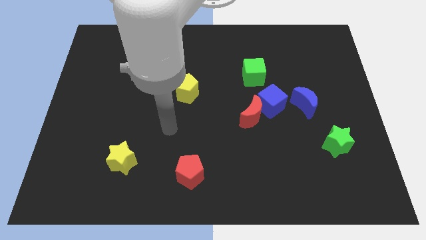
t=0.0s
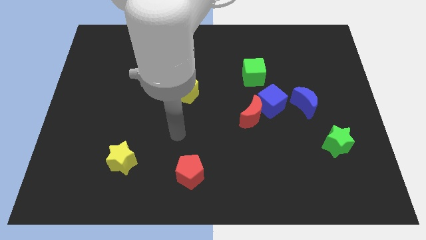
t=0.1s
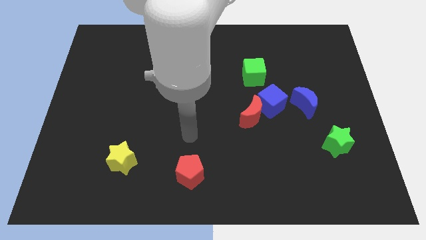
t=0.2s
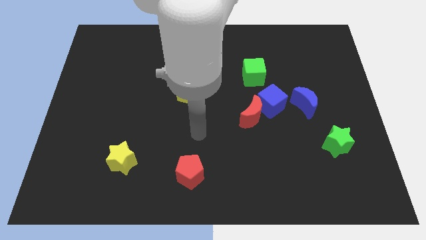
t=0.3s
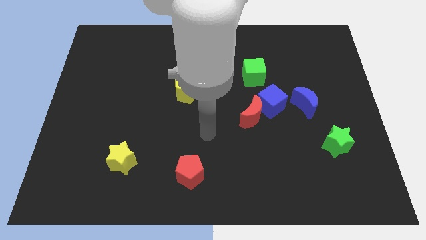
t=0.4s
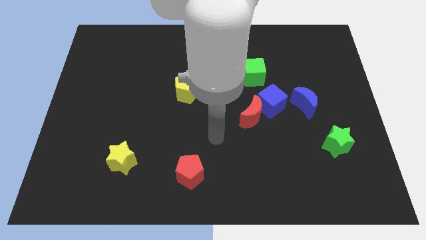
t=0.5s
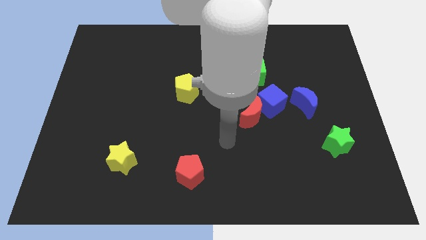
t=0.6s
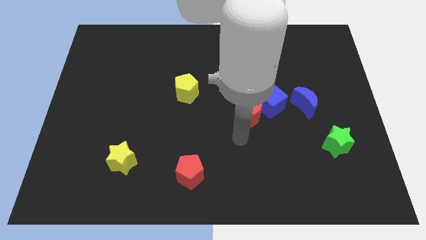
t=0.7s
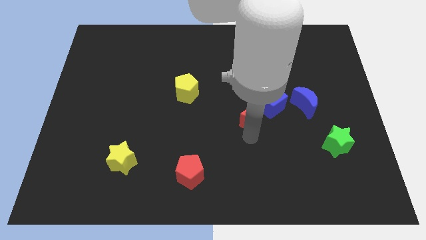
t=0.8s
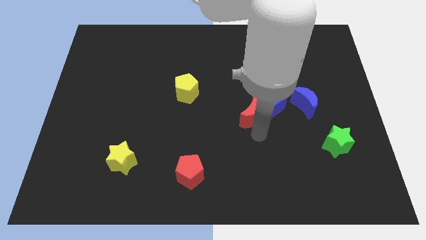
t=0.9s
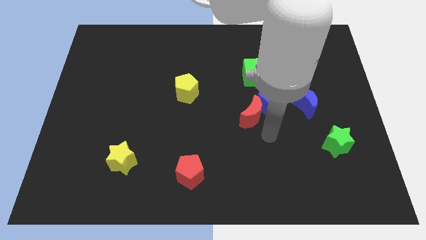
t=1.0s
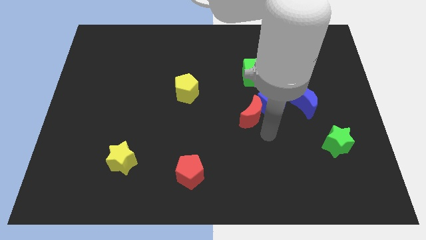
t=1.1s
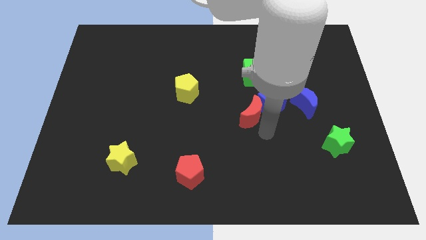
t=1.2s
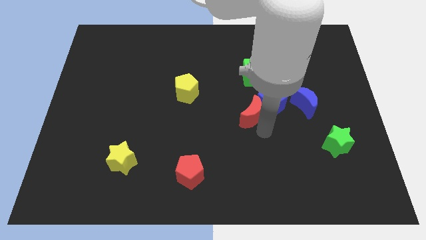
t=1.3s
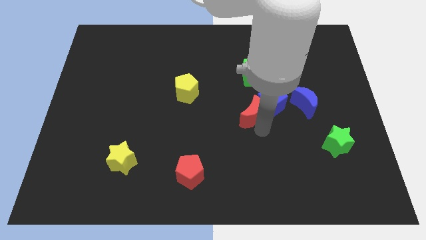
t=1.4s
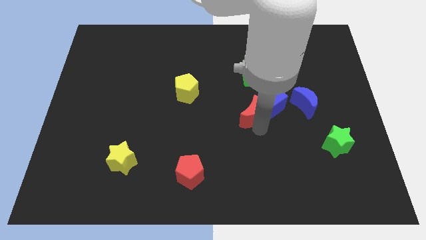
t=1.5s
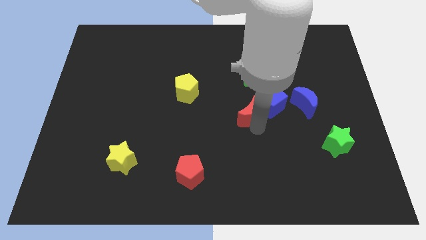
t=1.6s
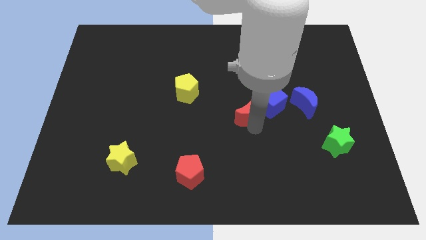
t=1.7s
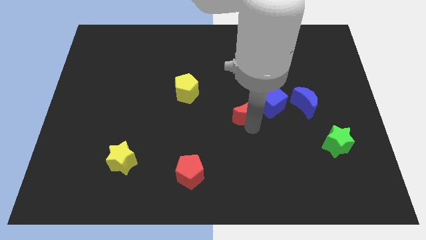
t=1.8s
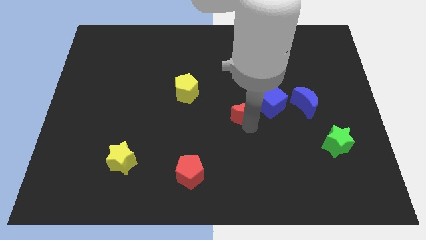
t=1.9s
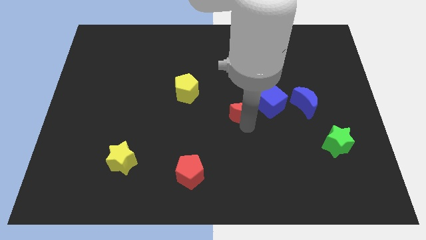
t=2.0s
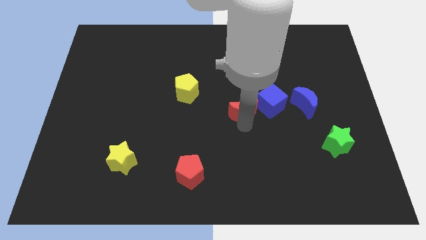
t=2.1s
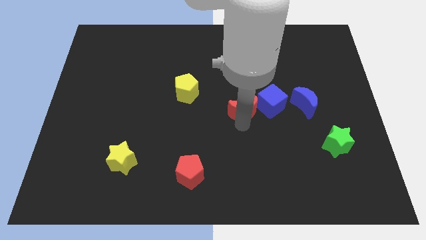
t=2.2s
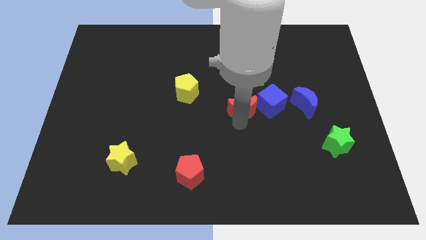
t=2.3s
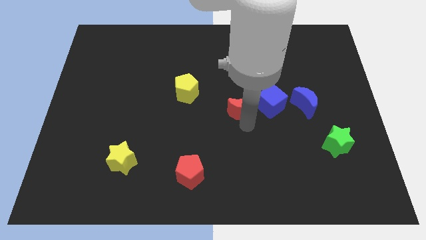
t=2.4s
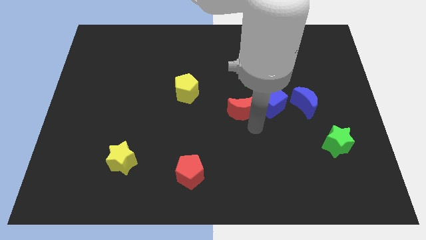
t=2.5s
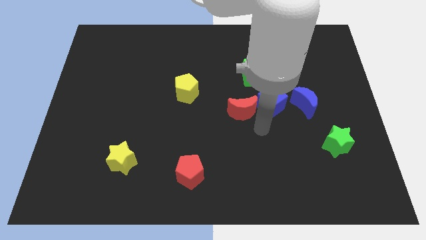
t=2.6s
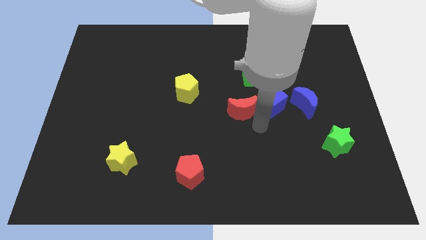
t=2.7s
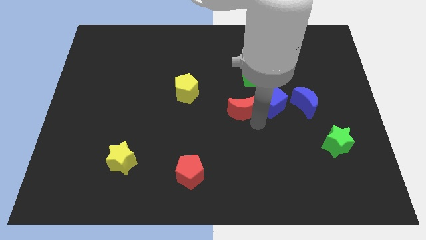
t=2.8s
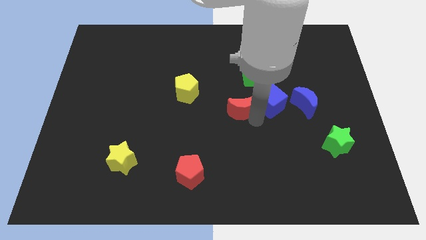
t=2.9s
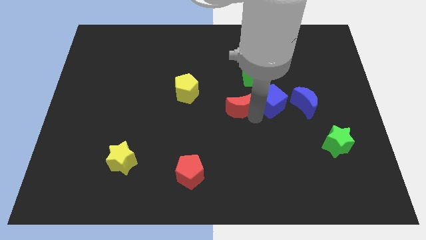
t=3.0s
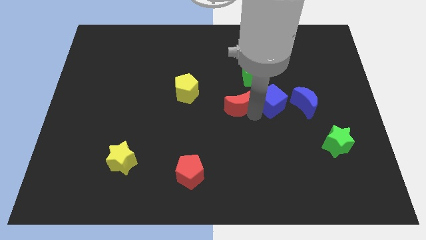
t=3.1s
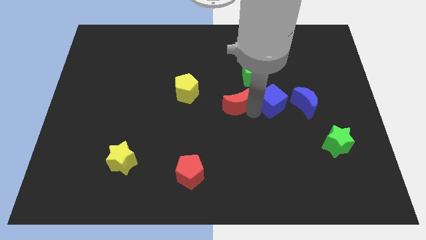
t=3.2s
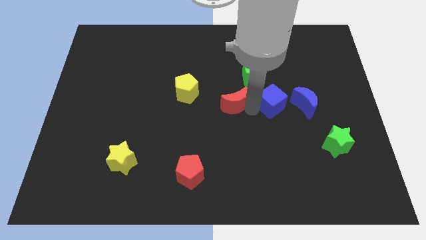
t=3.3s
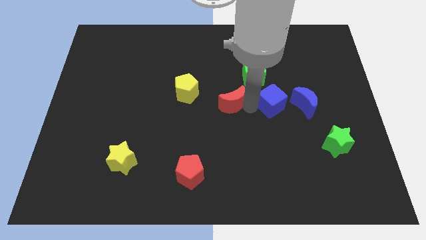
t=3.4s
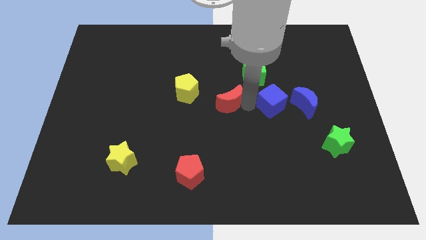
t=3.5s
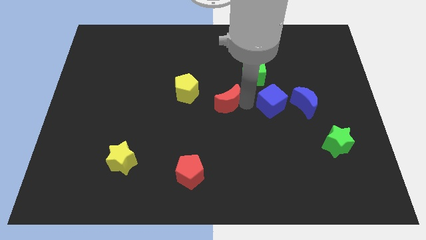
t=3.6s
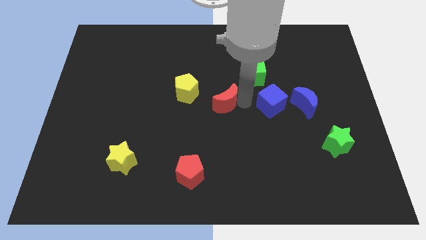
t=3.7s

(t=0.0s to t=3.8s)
move the red moon somewhat upwards and then to the left

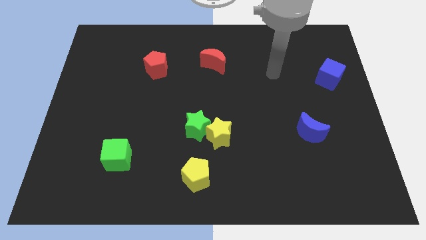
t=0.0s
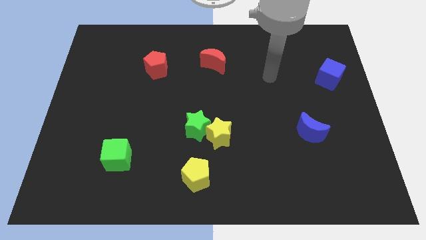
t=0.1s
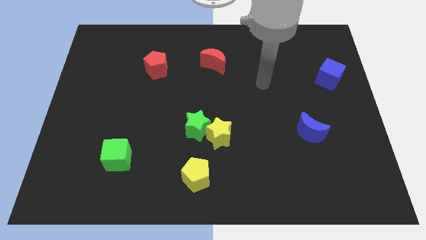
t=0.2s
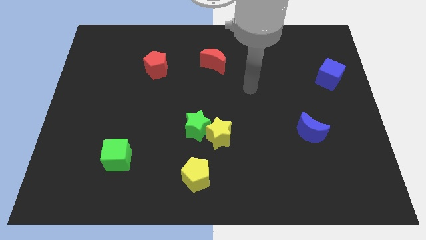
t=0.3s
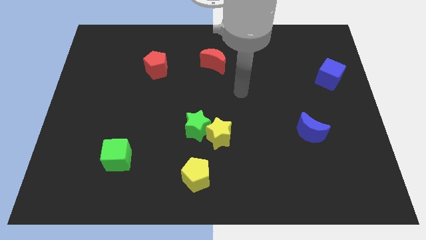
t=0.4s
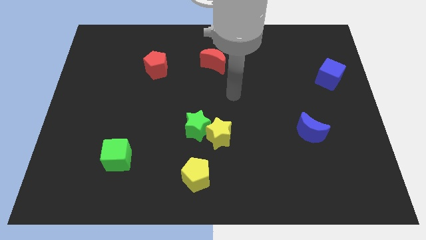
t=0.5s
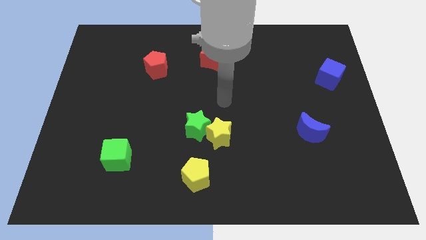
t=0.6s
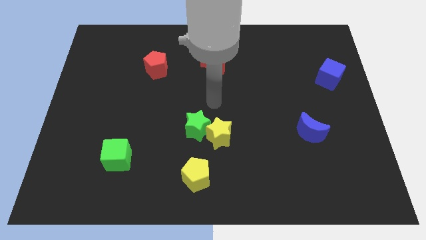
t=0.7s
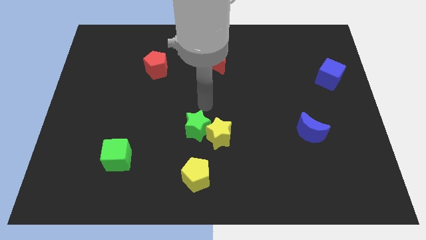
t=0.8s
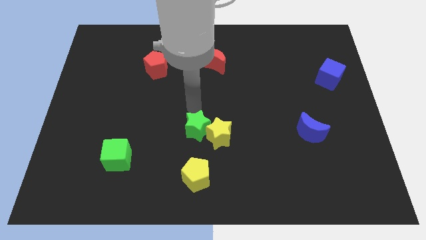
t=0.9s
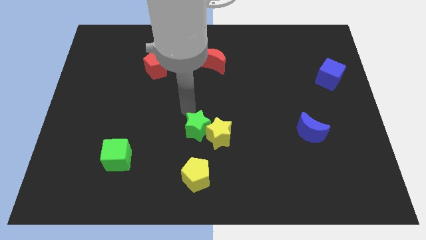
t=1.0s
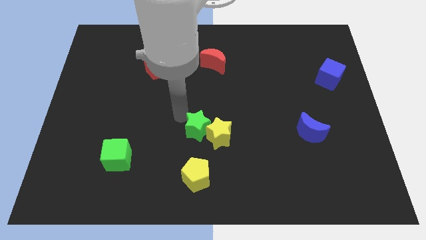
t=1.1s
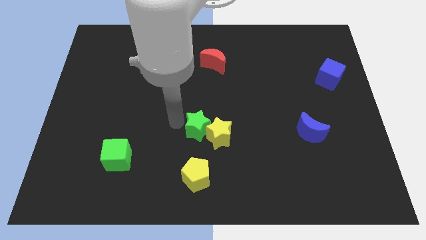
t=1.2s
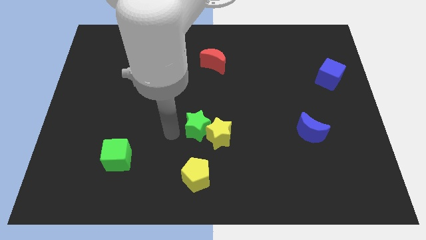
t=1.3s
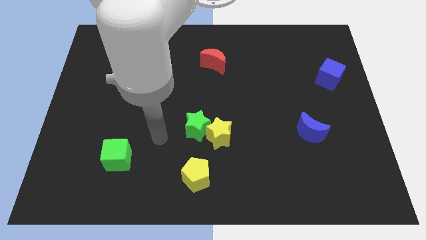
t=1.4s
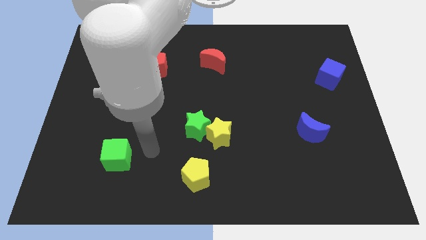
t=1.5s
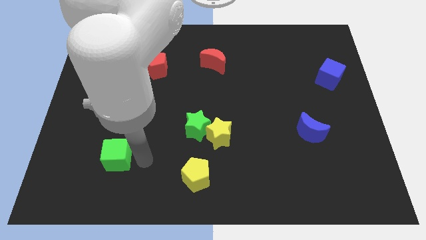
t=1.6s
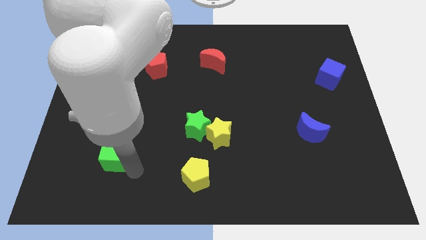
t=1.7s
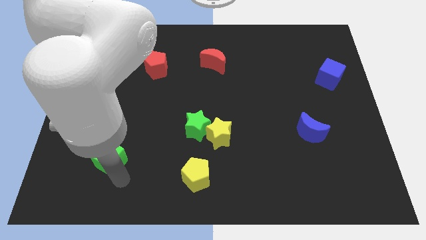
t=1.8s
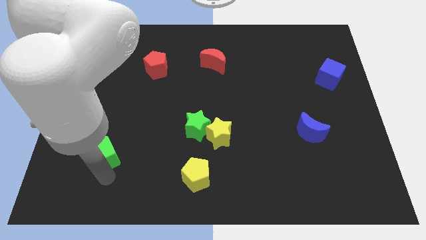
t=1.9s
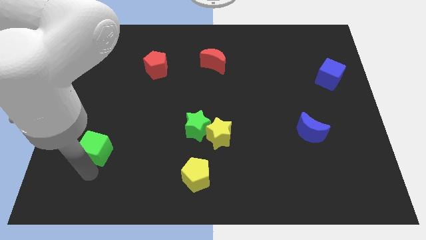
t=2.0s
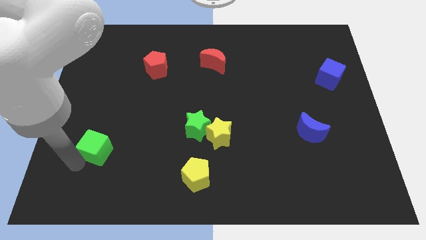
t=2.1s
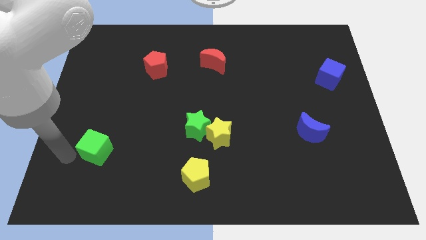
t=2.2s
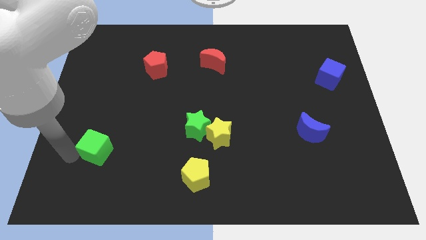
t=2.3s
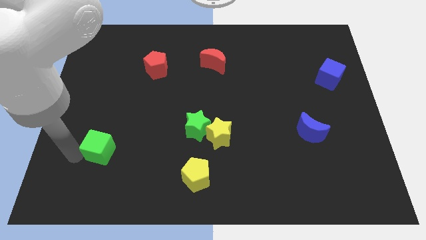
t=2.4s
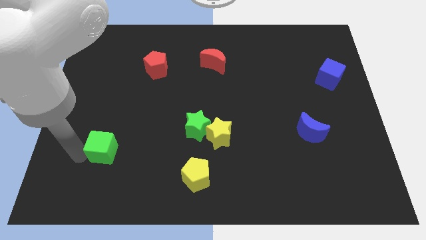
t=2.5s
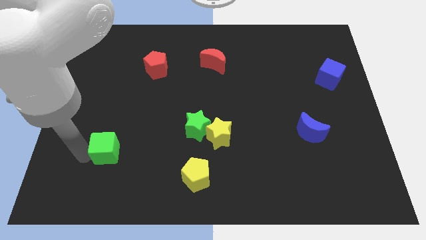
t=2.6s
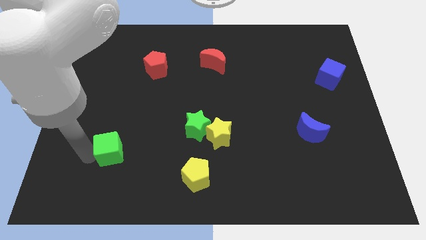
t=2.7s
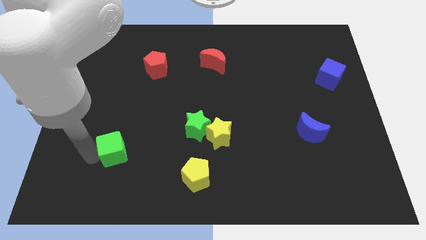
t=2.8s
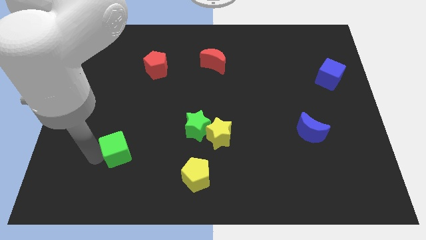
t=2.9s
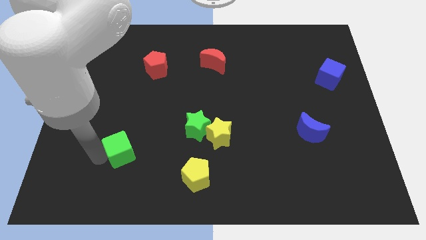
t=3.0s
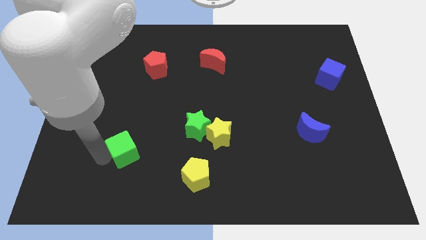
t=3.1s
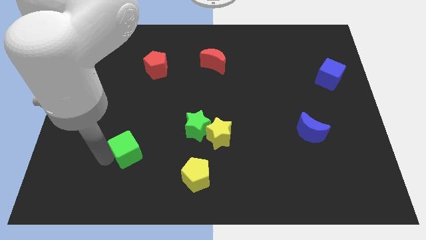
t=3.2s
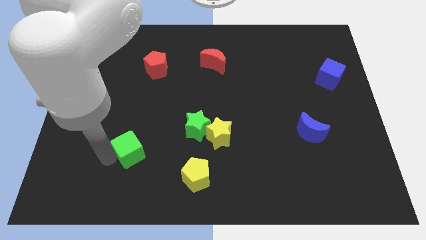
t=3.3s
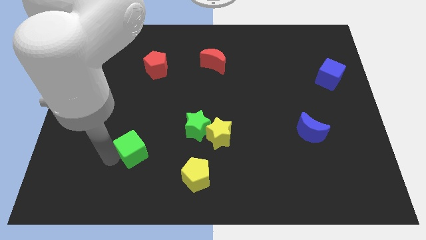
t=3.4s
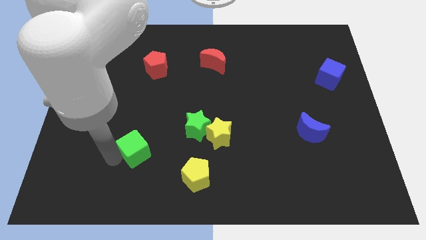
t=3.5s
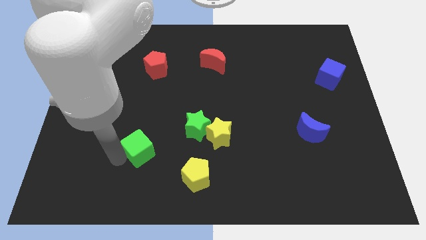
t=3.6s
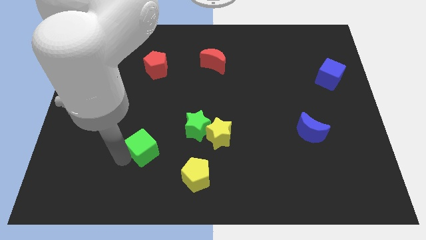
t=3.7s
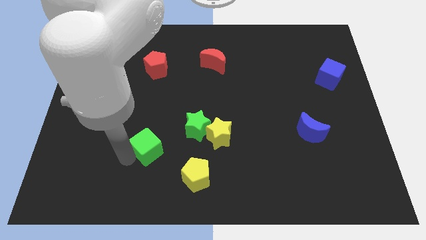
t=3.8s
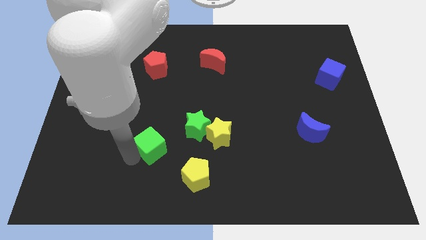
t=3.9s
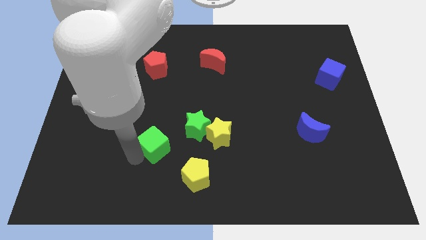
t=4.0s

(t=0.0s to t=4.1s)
push the green cube upwards and right slightly
